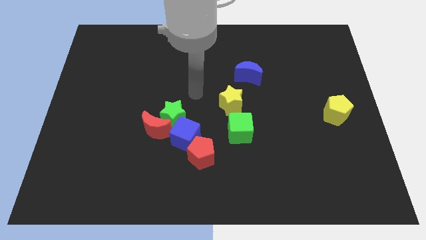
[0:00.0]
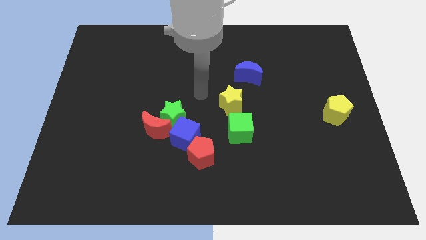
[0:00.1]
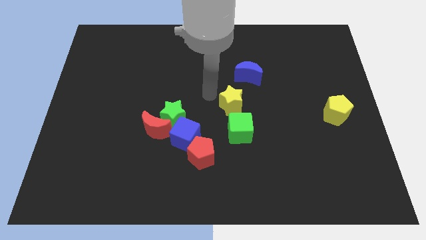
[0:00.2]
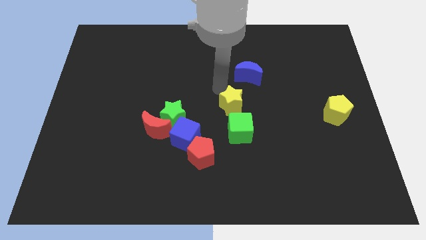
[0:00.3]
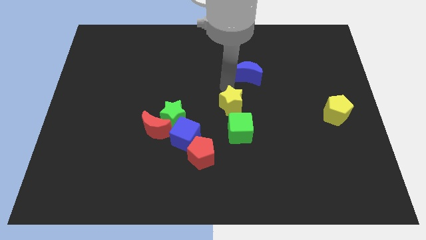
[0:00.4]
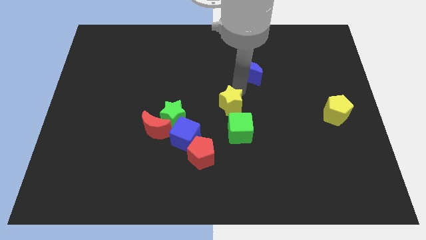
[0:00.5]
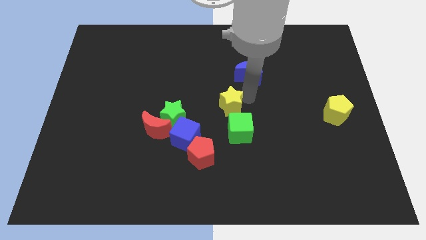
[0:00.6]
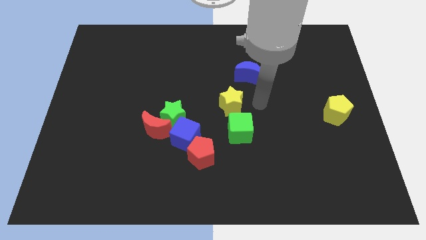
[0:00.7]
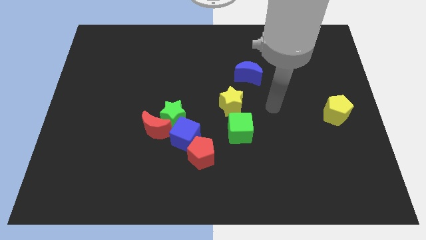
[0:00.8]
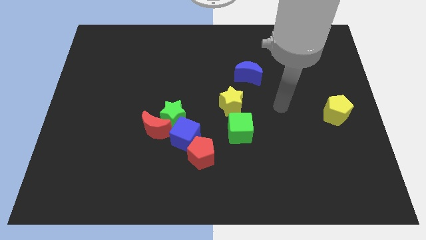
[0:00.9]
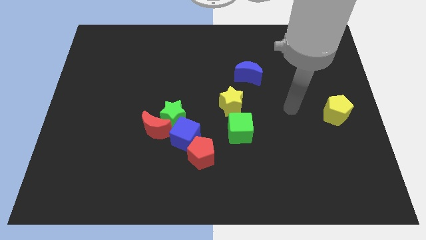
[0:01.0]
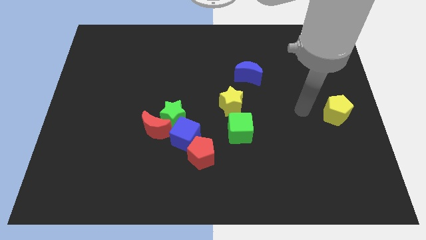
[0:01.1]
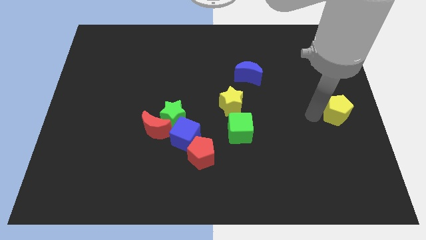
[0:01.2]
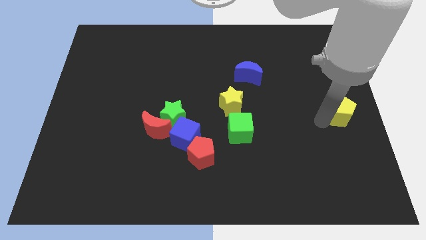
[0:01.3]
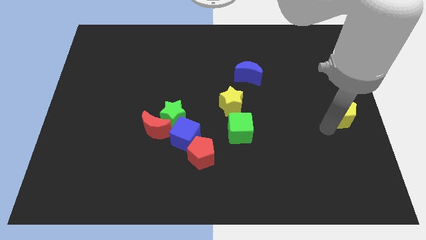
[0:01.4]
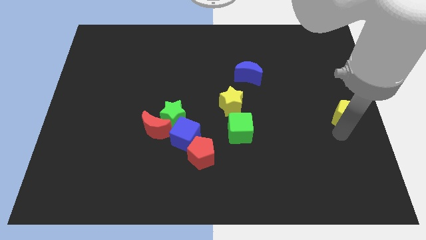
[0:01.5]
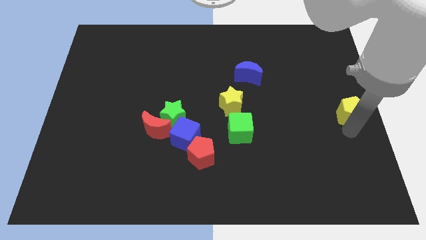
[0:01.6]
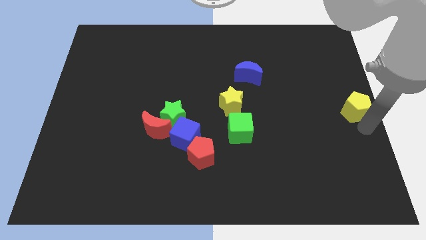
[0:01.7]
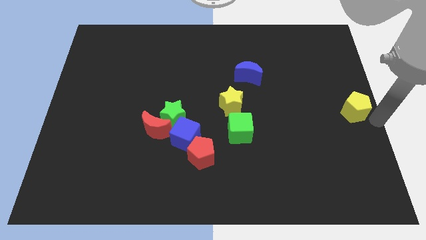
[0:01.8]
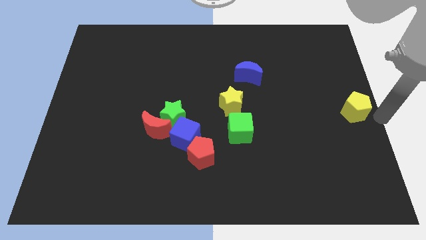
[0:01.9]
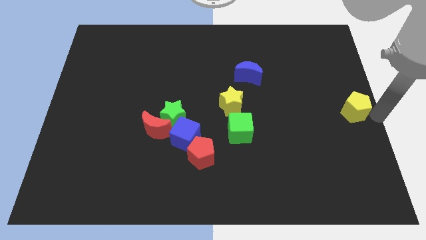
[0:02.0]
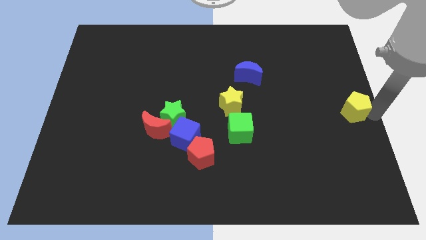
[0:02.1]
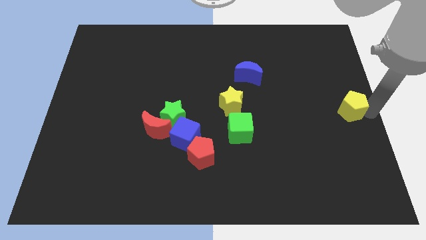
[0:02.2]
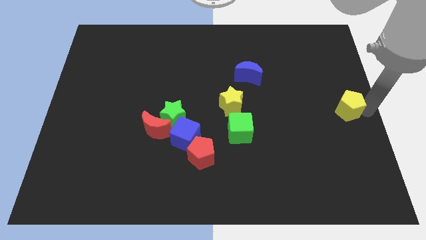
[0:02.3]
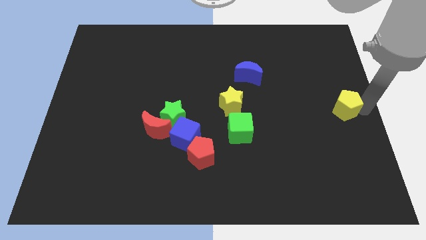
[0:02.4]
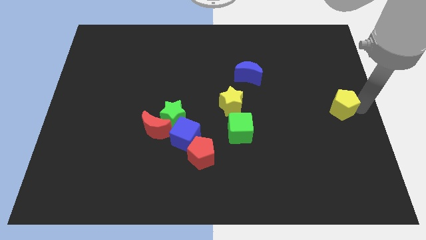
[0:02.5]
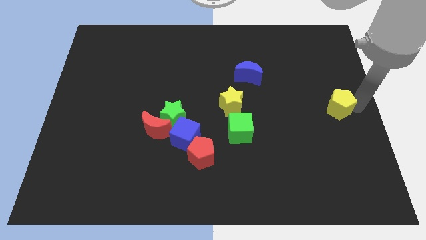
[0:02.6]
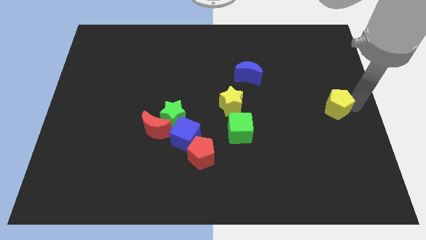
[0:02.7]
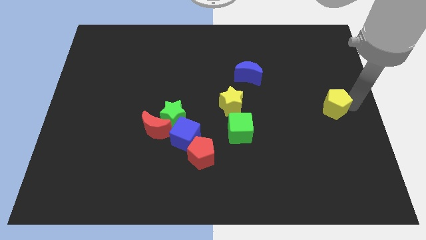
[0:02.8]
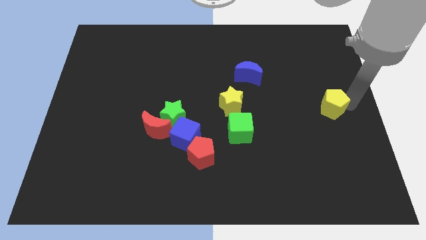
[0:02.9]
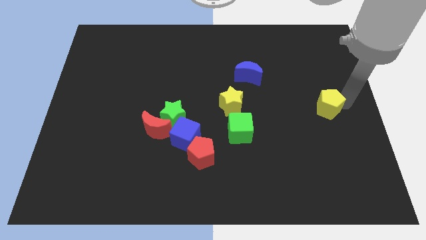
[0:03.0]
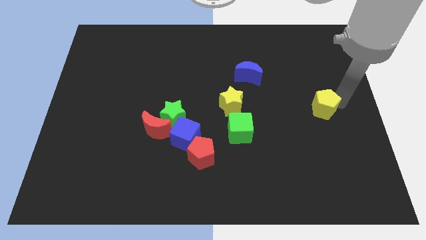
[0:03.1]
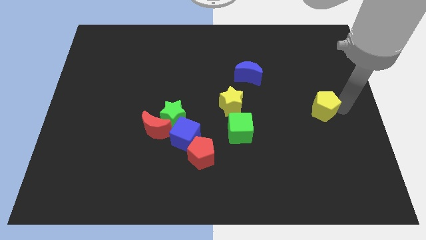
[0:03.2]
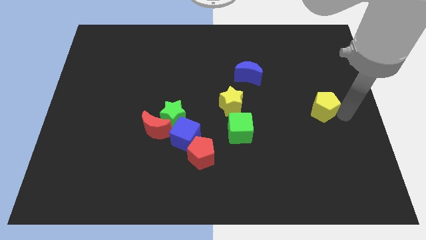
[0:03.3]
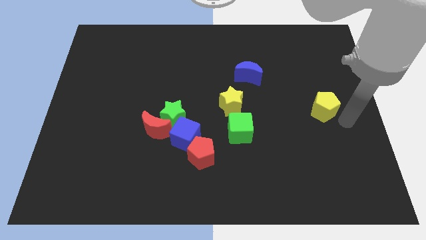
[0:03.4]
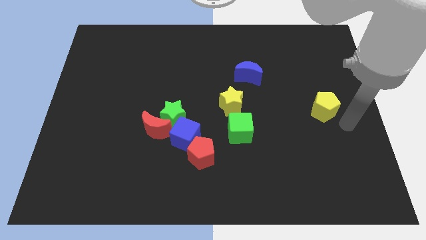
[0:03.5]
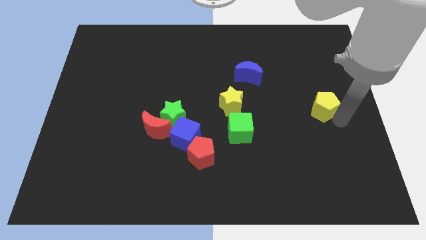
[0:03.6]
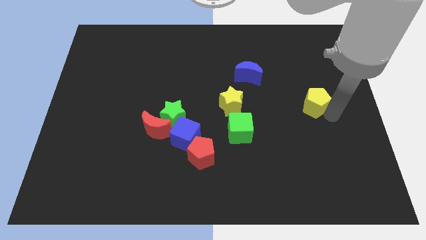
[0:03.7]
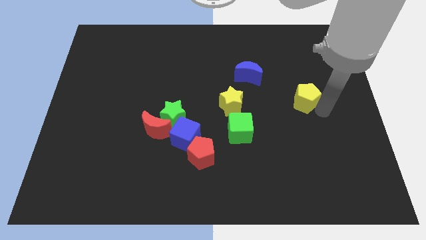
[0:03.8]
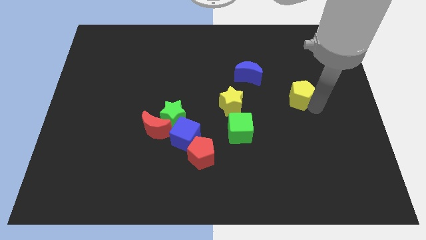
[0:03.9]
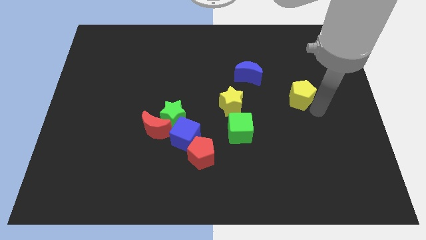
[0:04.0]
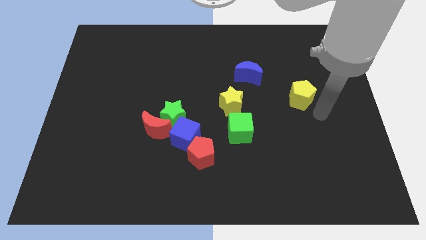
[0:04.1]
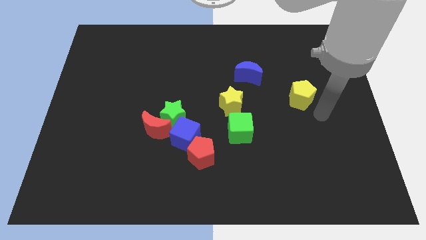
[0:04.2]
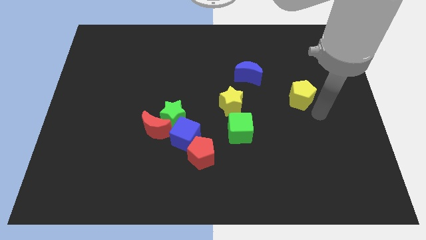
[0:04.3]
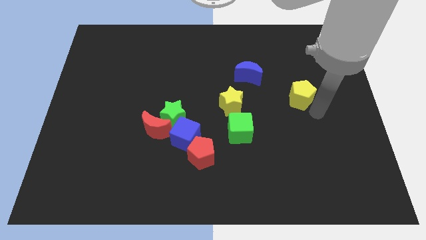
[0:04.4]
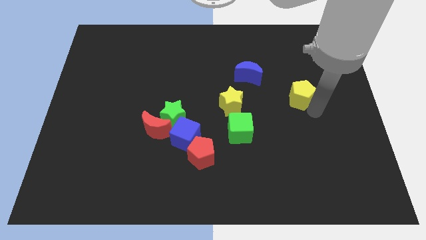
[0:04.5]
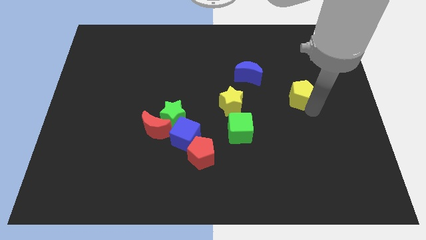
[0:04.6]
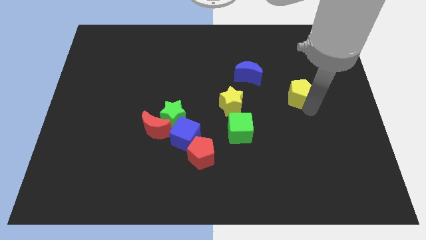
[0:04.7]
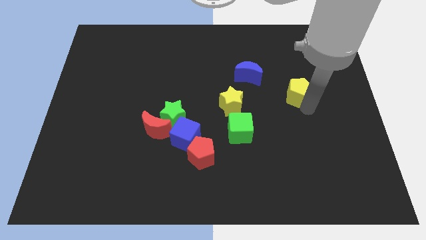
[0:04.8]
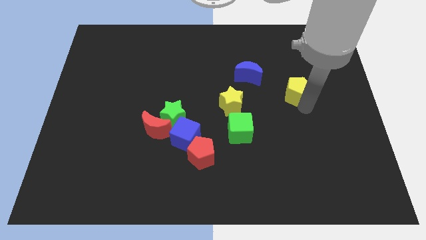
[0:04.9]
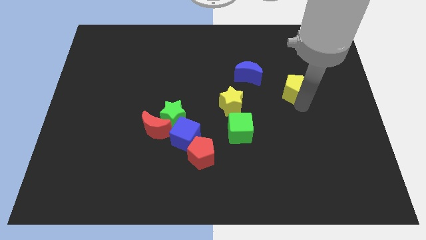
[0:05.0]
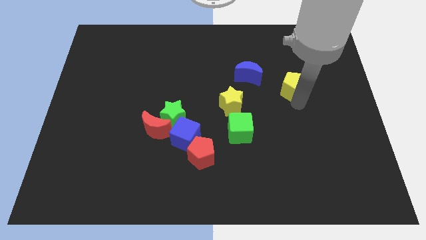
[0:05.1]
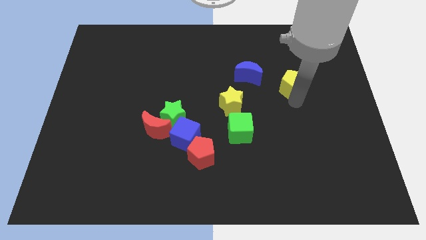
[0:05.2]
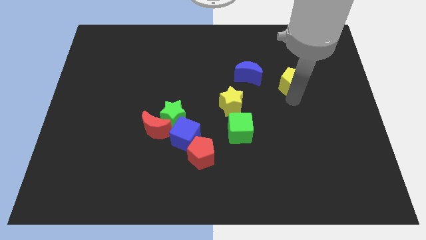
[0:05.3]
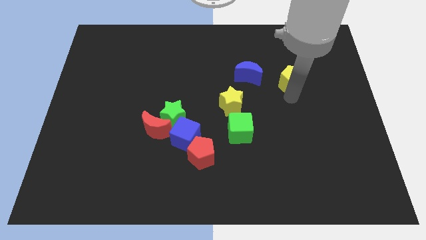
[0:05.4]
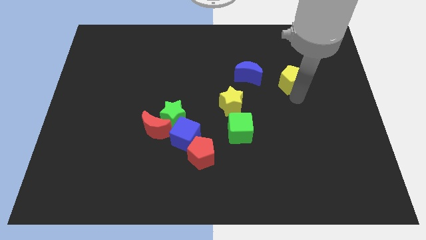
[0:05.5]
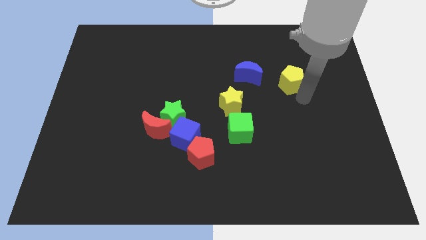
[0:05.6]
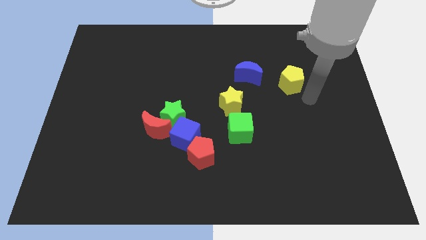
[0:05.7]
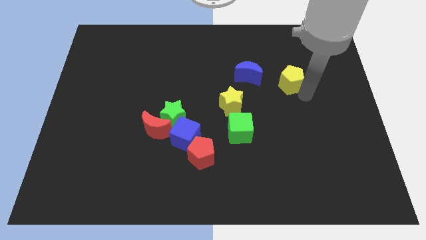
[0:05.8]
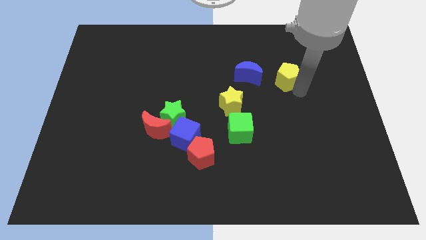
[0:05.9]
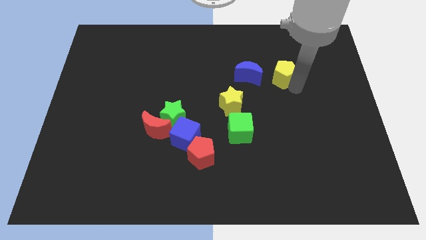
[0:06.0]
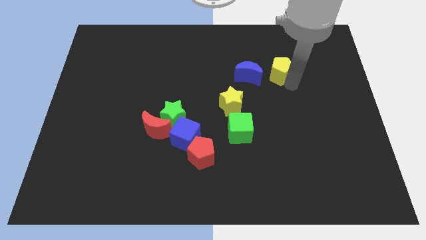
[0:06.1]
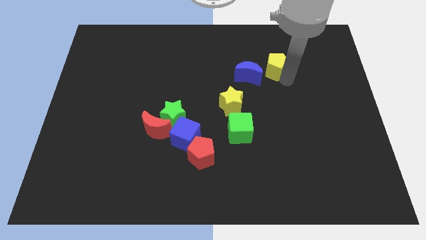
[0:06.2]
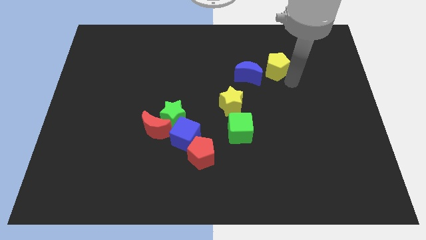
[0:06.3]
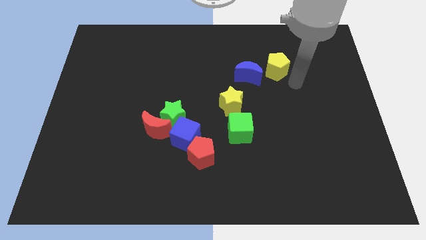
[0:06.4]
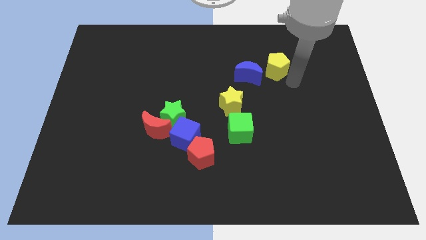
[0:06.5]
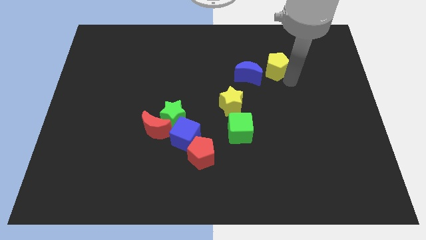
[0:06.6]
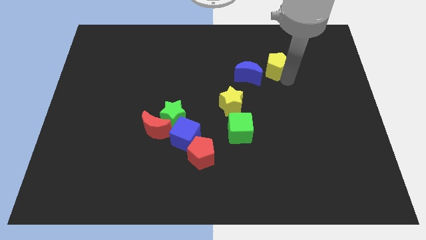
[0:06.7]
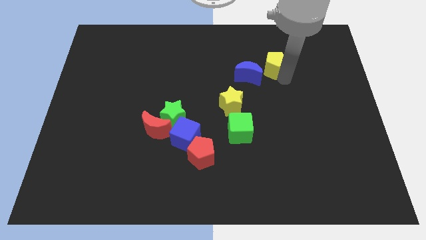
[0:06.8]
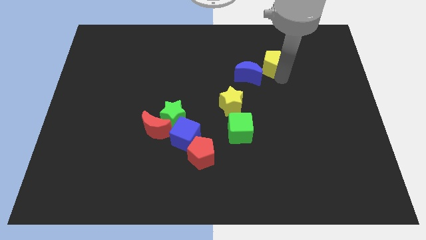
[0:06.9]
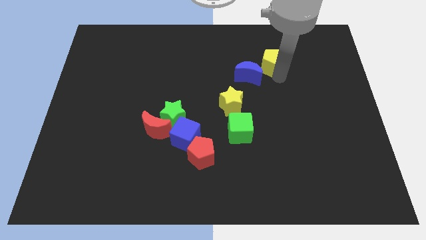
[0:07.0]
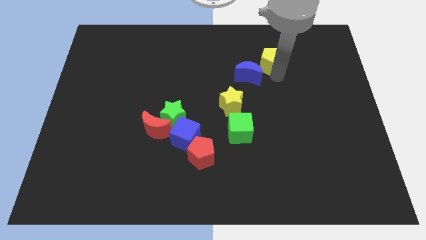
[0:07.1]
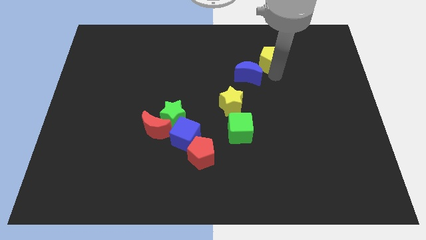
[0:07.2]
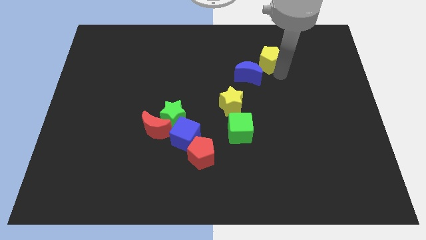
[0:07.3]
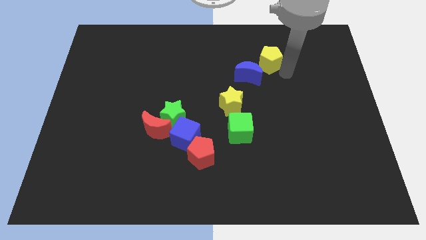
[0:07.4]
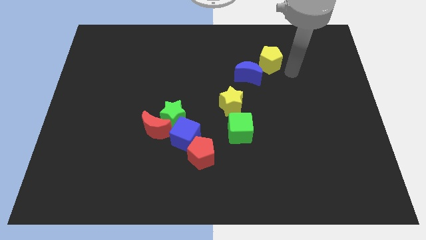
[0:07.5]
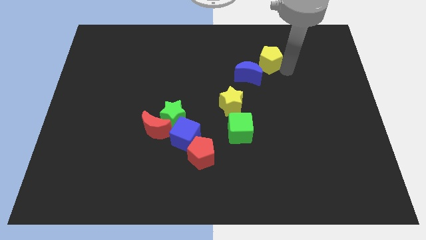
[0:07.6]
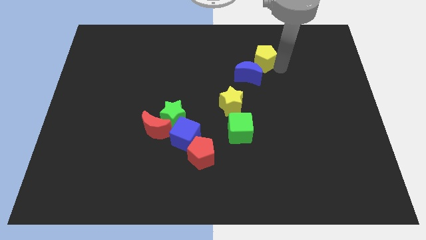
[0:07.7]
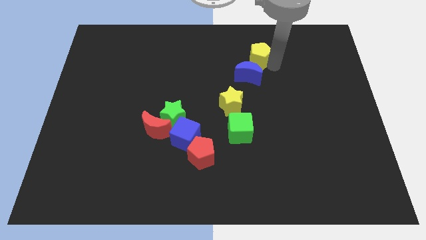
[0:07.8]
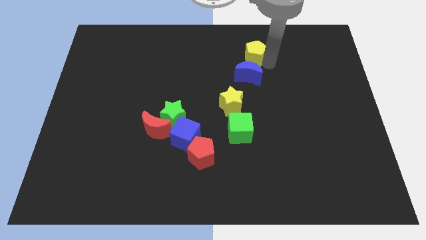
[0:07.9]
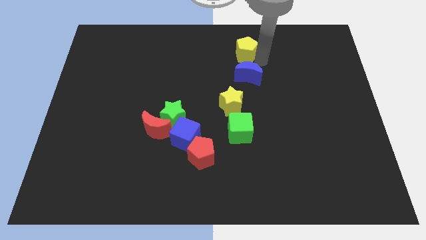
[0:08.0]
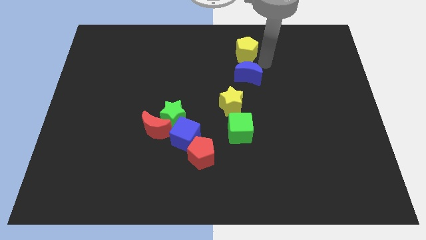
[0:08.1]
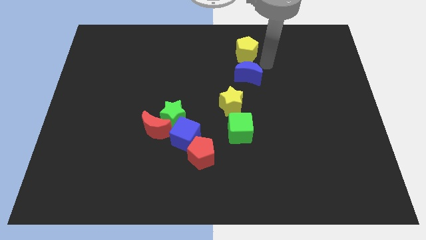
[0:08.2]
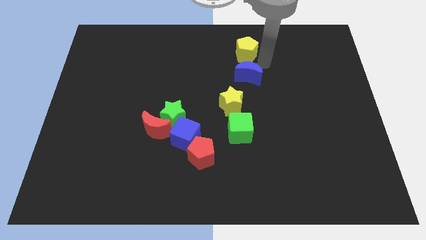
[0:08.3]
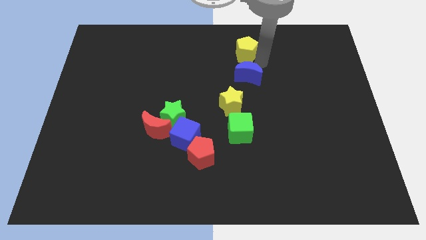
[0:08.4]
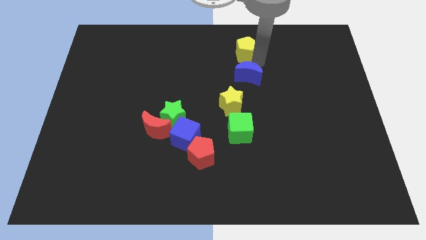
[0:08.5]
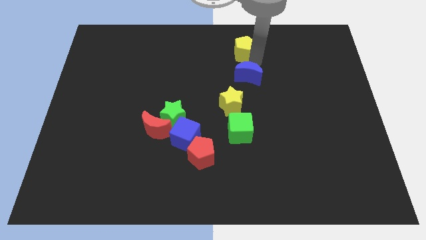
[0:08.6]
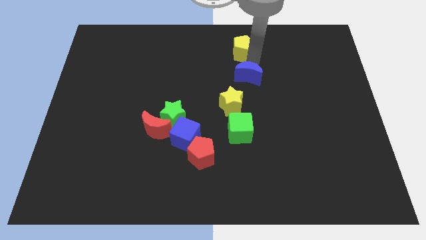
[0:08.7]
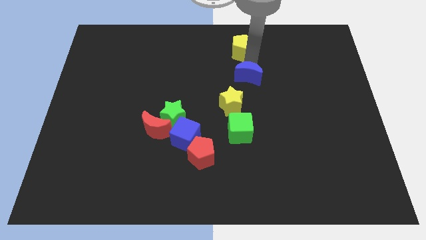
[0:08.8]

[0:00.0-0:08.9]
move the yellow pentagon to the top side
